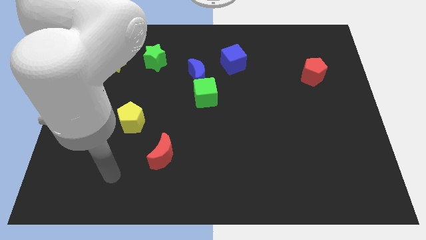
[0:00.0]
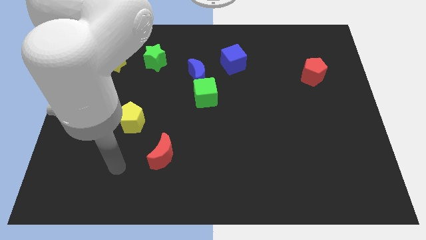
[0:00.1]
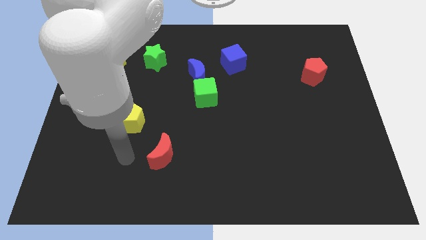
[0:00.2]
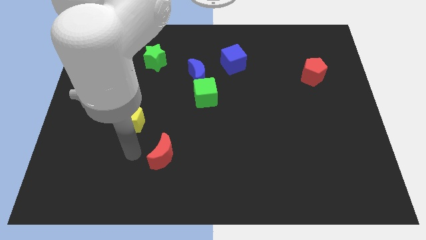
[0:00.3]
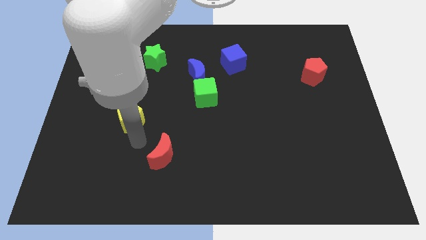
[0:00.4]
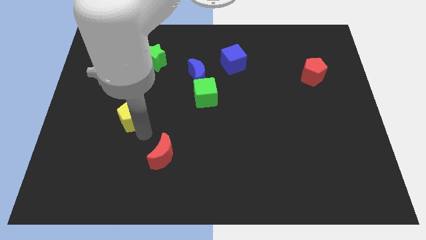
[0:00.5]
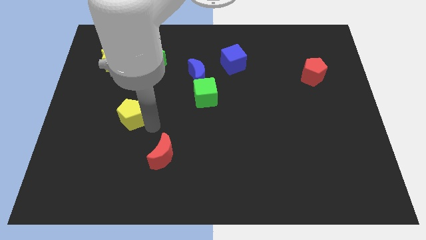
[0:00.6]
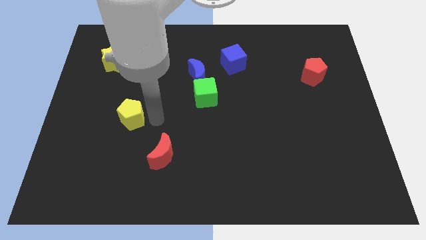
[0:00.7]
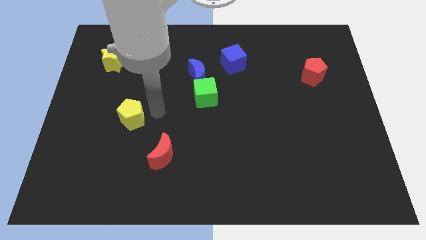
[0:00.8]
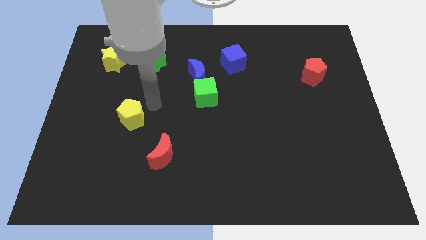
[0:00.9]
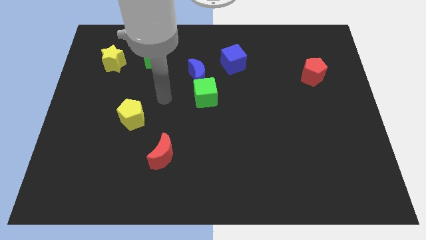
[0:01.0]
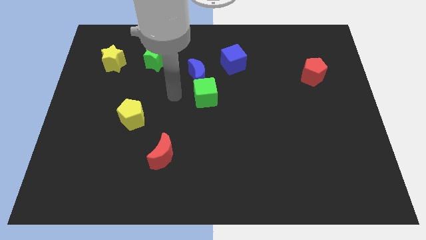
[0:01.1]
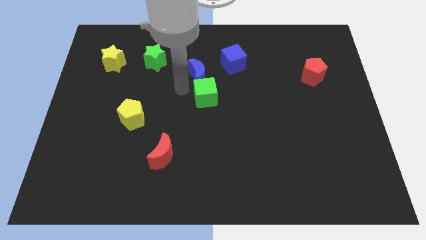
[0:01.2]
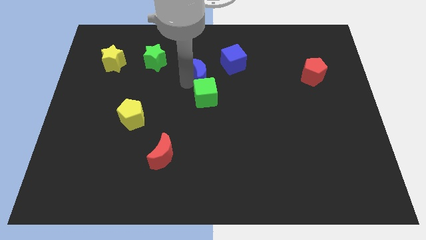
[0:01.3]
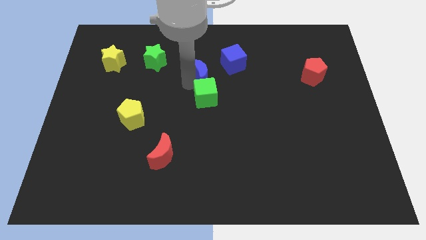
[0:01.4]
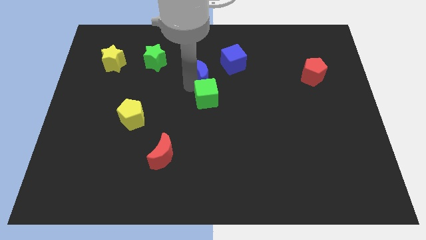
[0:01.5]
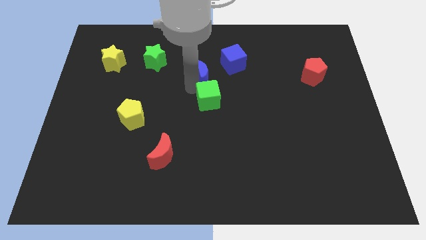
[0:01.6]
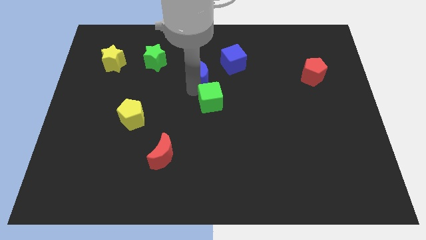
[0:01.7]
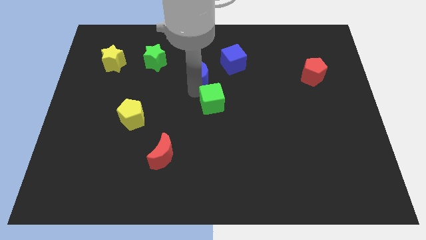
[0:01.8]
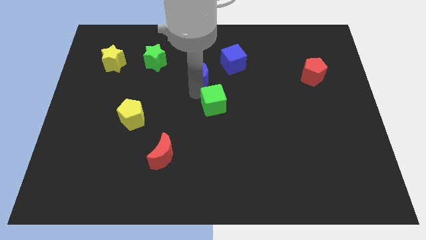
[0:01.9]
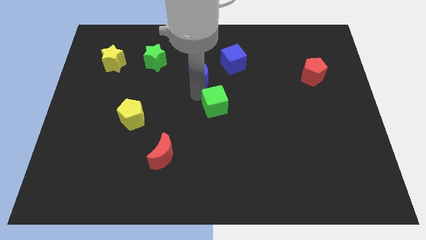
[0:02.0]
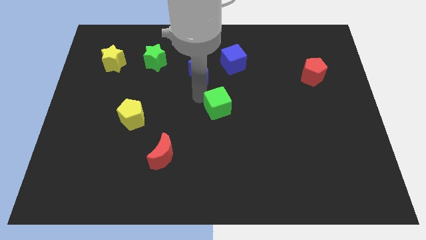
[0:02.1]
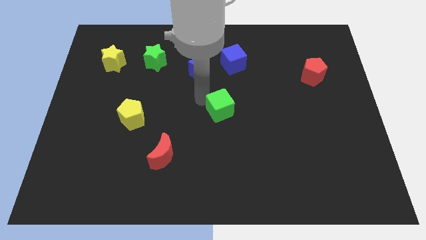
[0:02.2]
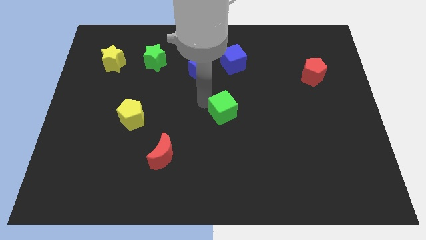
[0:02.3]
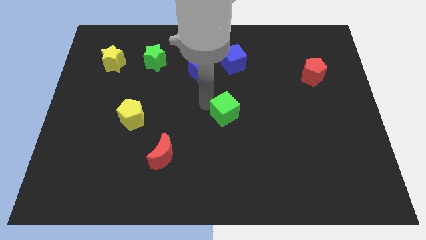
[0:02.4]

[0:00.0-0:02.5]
push the green cube down and then to the right somewhat

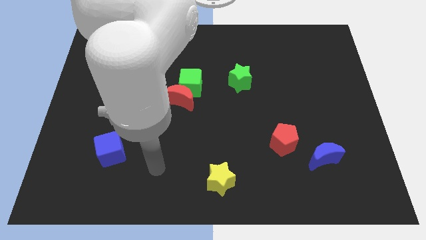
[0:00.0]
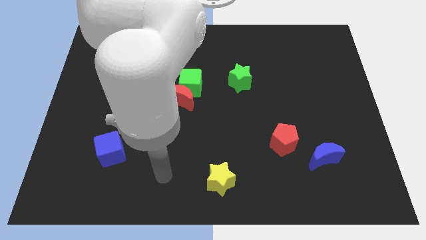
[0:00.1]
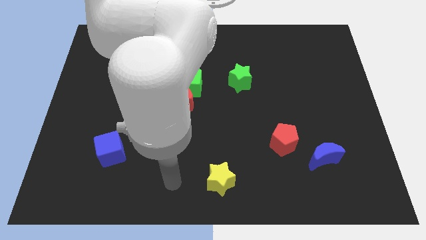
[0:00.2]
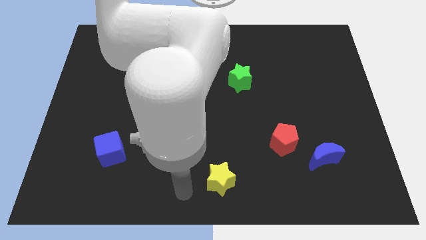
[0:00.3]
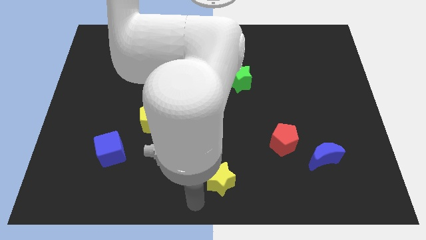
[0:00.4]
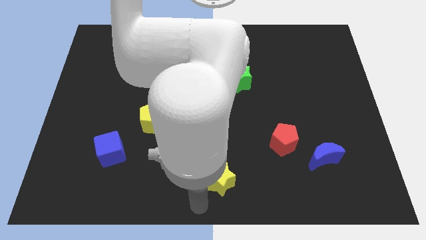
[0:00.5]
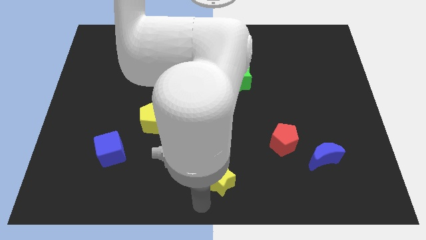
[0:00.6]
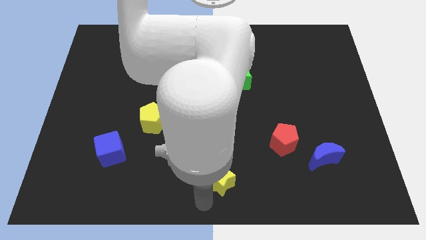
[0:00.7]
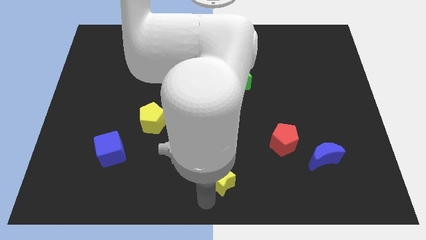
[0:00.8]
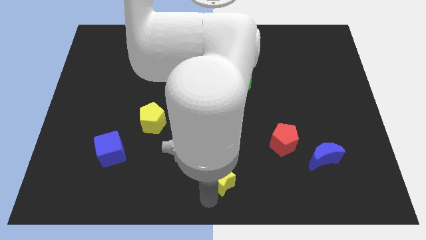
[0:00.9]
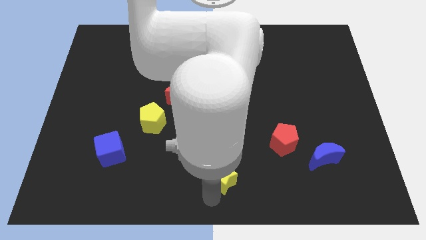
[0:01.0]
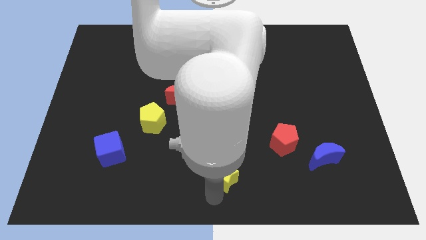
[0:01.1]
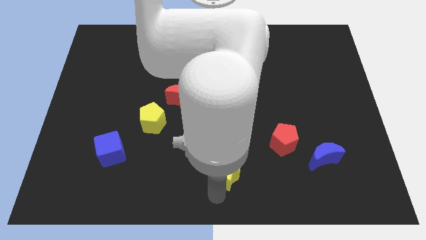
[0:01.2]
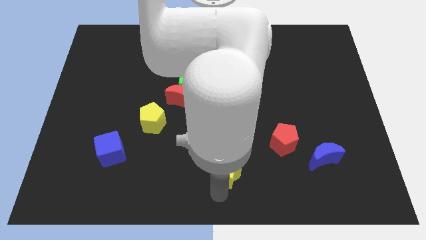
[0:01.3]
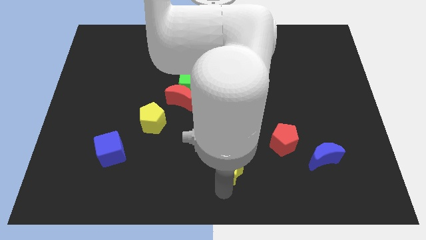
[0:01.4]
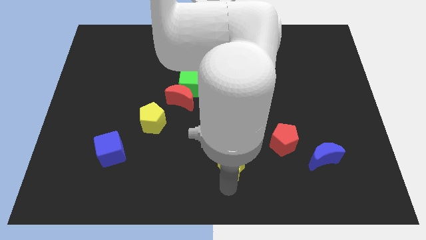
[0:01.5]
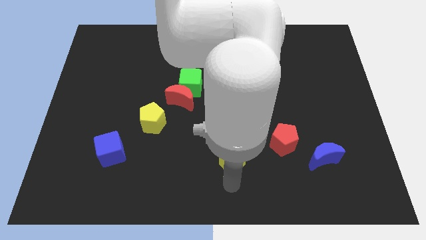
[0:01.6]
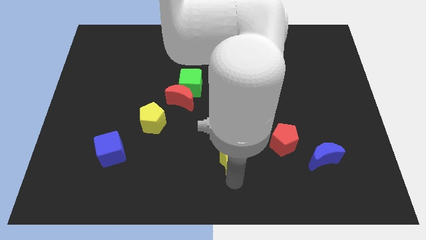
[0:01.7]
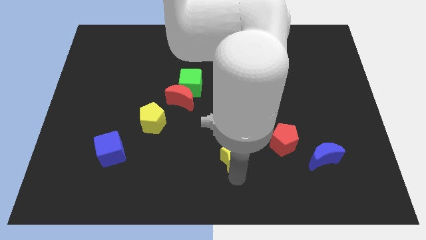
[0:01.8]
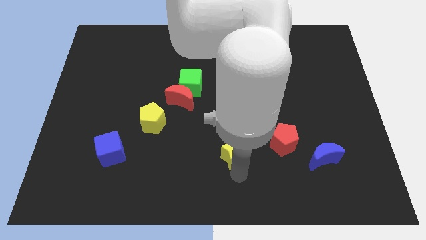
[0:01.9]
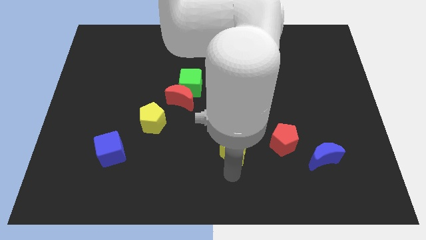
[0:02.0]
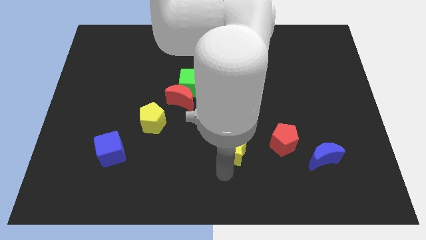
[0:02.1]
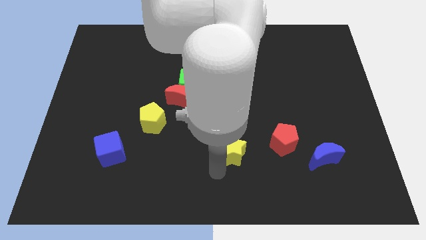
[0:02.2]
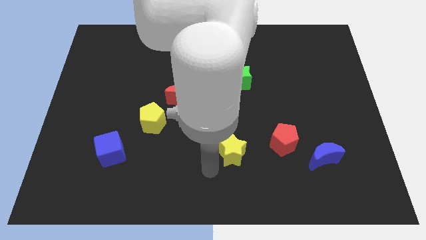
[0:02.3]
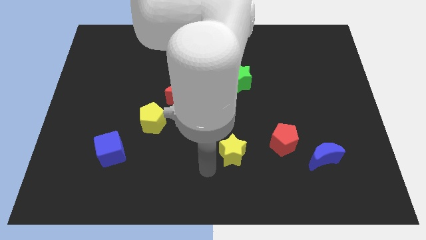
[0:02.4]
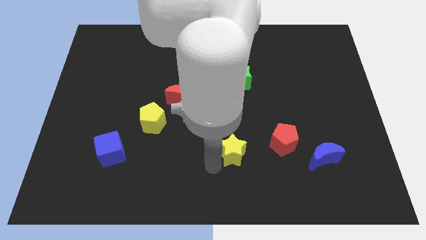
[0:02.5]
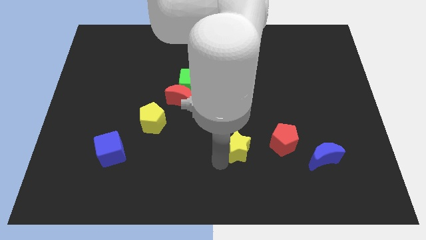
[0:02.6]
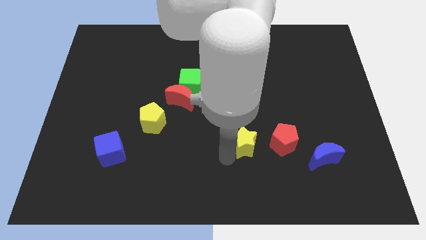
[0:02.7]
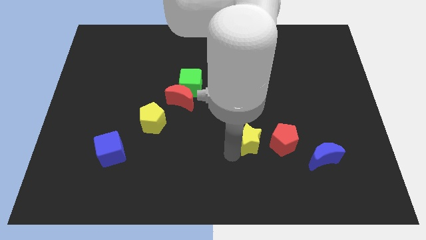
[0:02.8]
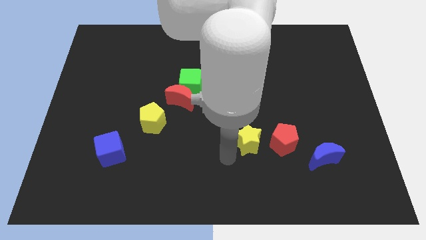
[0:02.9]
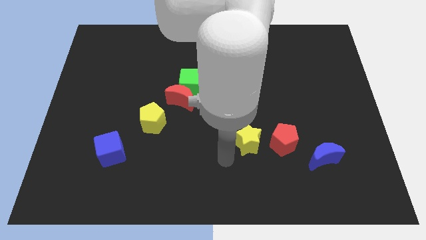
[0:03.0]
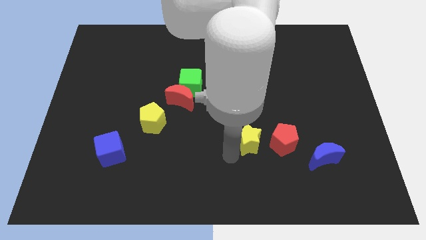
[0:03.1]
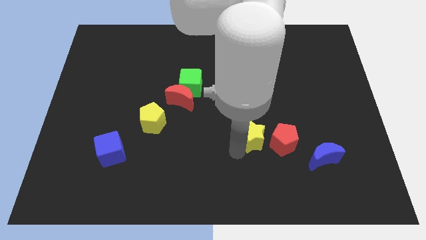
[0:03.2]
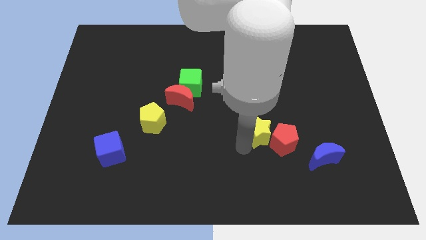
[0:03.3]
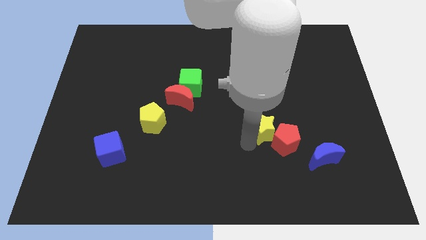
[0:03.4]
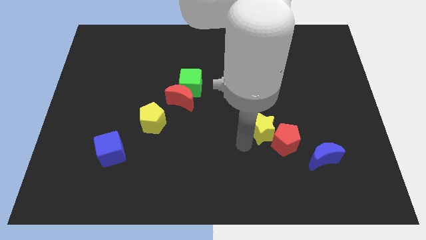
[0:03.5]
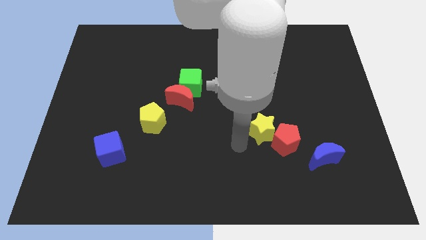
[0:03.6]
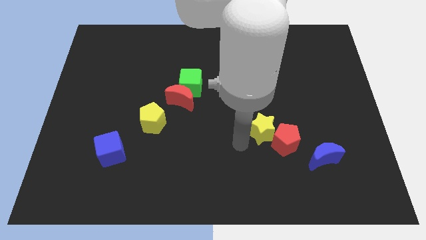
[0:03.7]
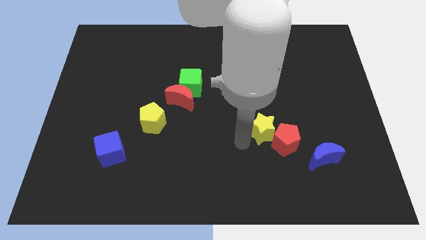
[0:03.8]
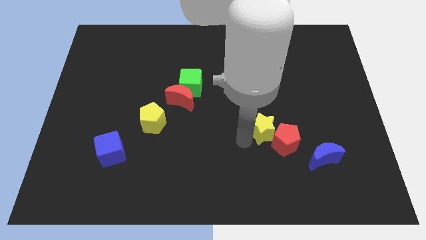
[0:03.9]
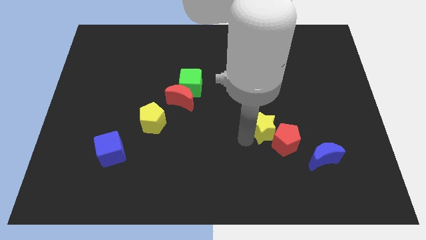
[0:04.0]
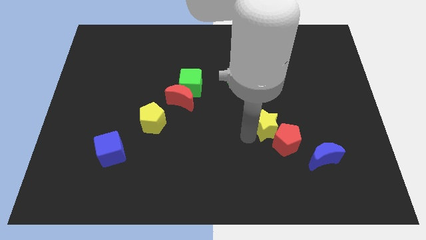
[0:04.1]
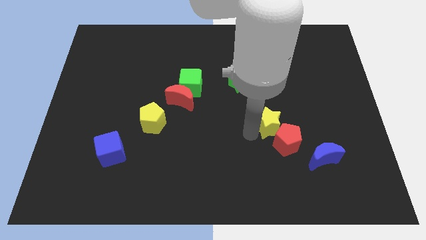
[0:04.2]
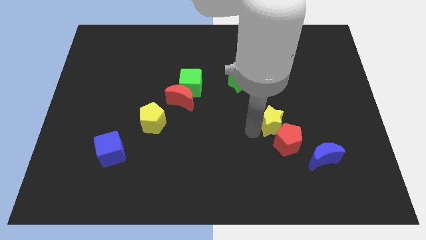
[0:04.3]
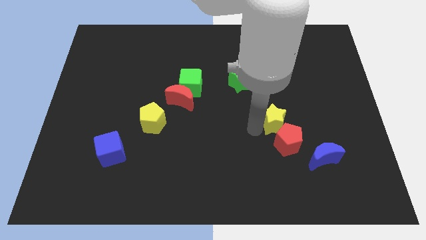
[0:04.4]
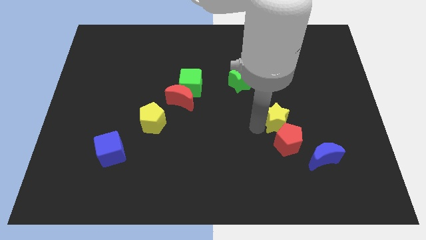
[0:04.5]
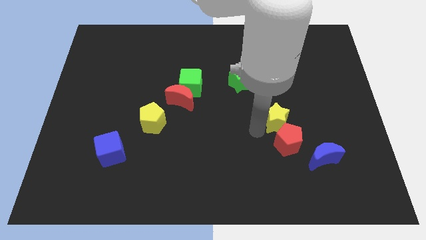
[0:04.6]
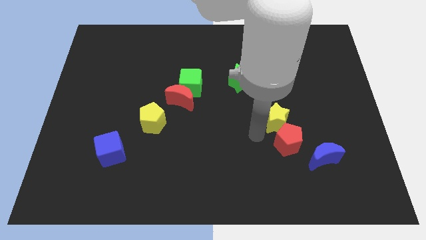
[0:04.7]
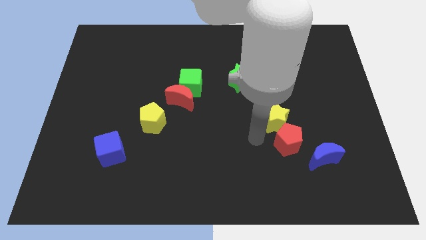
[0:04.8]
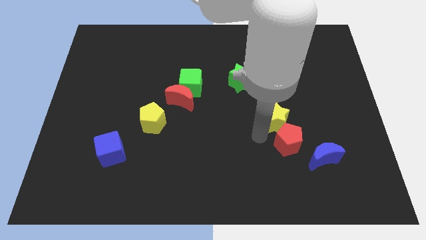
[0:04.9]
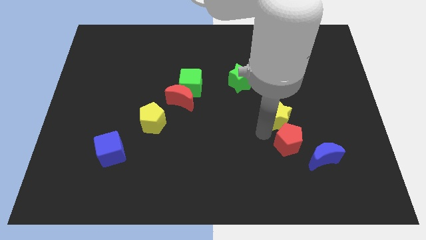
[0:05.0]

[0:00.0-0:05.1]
slide the yellow star up and to the right diagonally

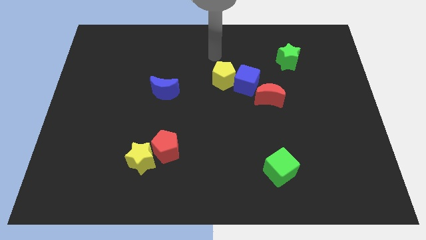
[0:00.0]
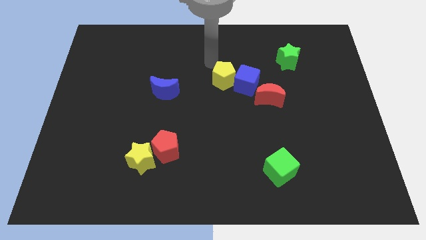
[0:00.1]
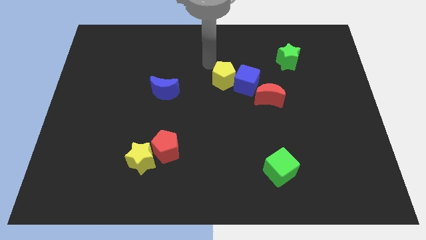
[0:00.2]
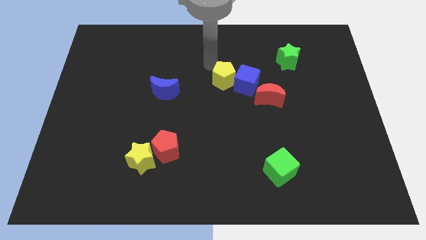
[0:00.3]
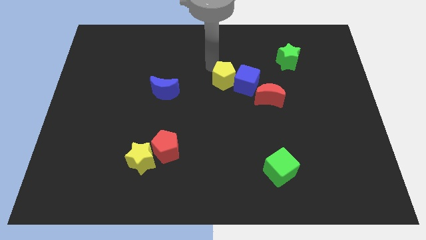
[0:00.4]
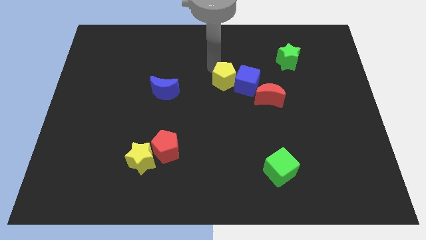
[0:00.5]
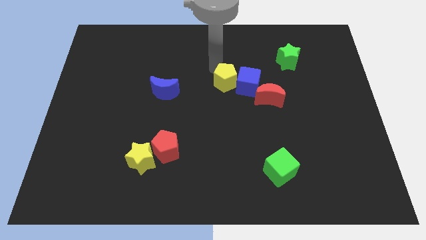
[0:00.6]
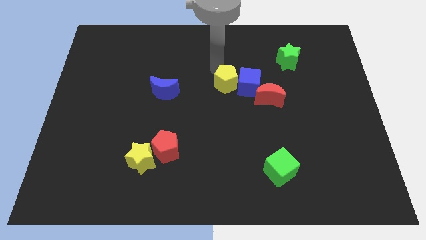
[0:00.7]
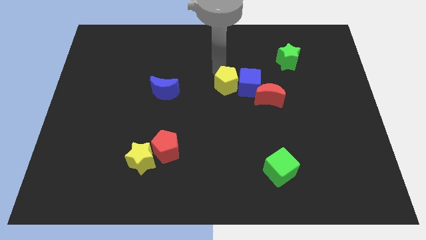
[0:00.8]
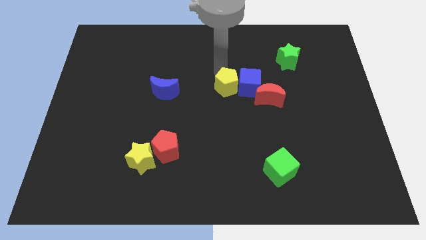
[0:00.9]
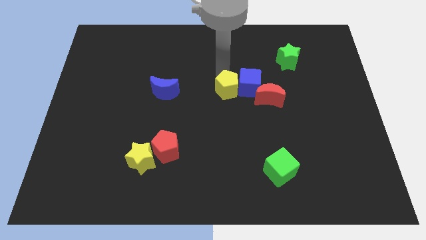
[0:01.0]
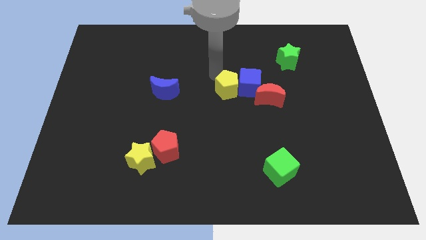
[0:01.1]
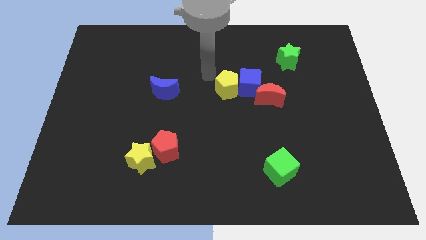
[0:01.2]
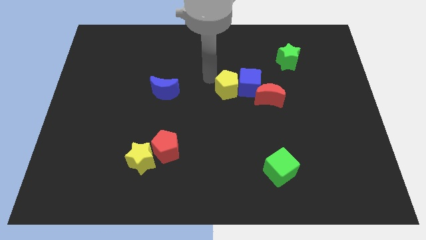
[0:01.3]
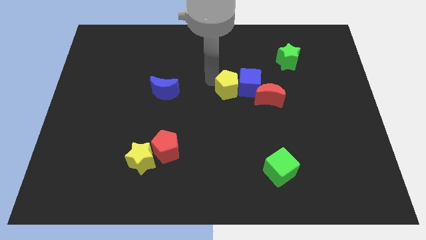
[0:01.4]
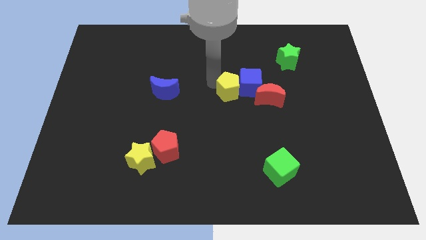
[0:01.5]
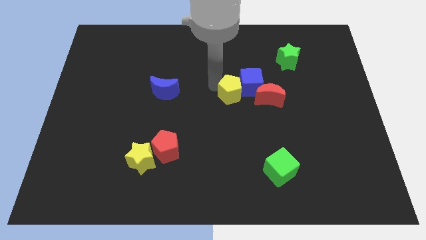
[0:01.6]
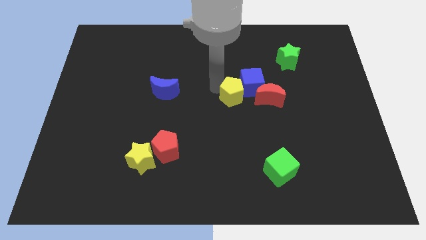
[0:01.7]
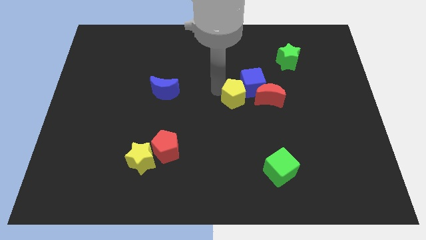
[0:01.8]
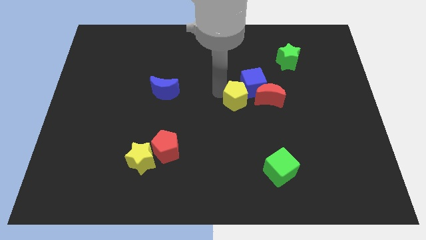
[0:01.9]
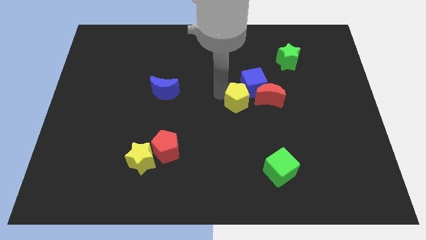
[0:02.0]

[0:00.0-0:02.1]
slightly slide the yellow pentagon down and then to the right
